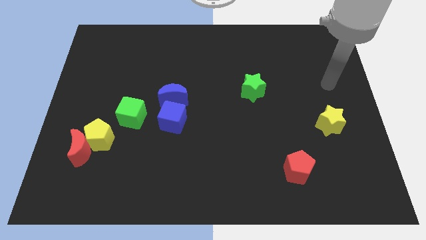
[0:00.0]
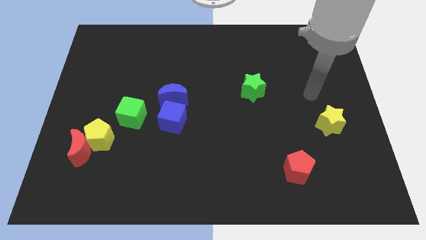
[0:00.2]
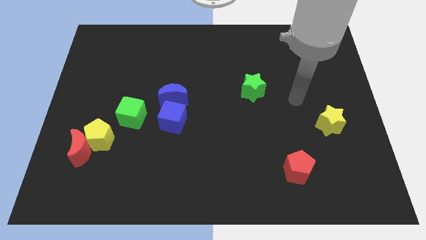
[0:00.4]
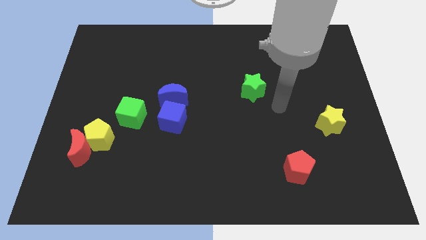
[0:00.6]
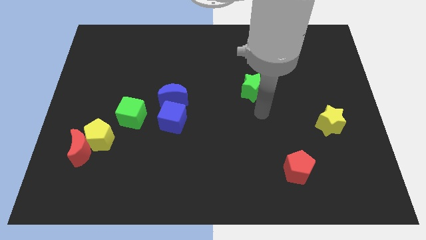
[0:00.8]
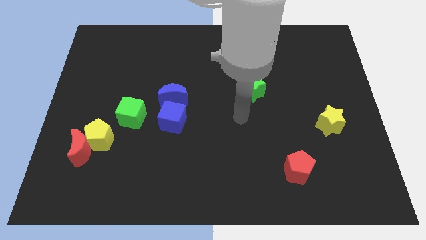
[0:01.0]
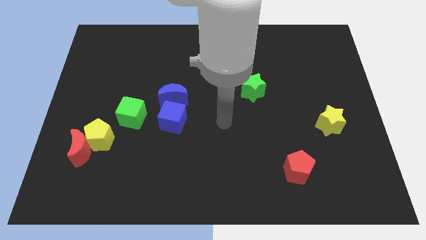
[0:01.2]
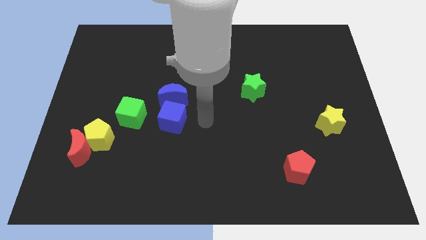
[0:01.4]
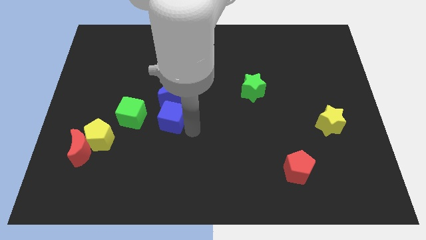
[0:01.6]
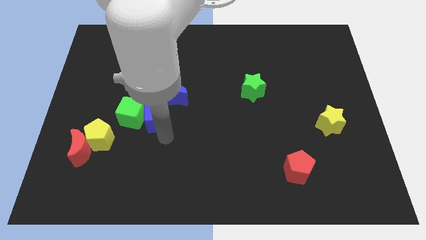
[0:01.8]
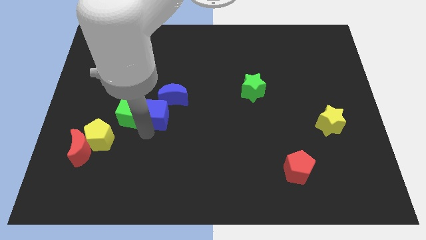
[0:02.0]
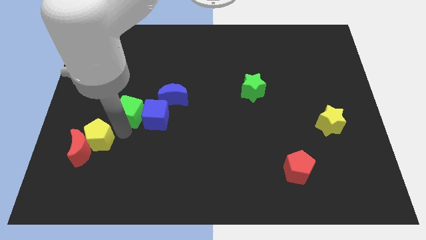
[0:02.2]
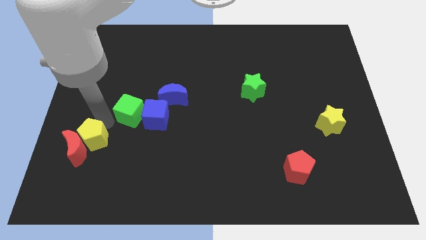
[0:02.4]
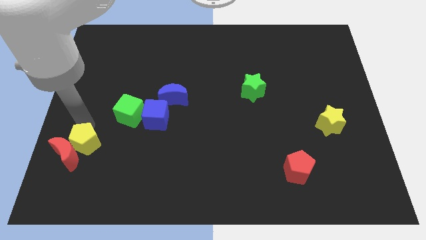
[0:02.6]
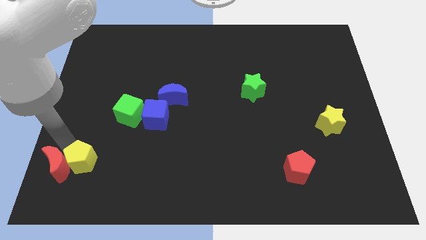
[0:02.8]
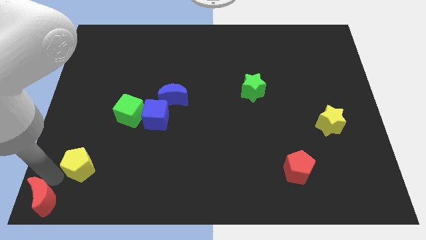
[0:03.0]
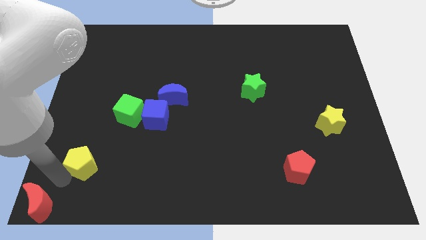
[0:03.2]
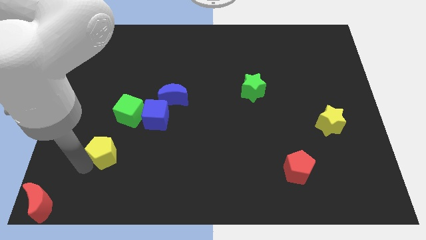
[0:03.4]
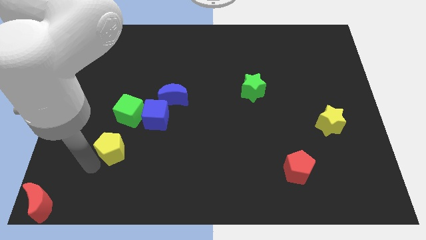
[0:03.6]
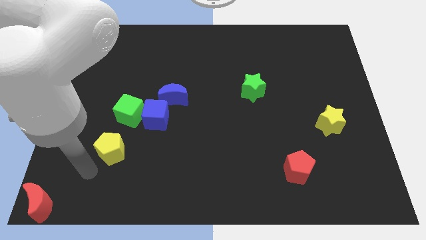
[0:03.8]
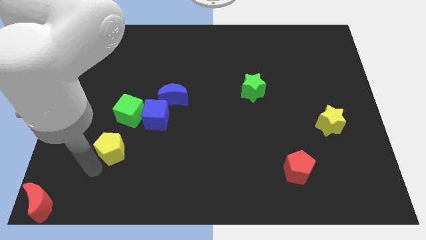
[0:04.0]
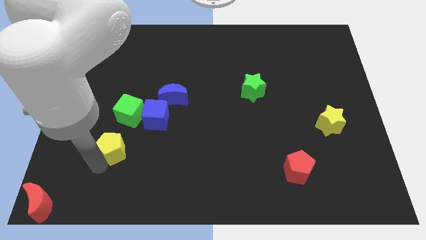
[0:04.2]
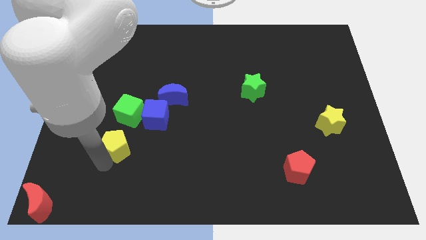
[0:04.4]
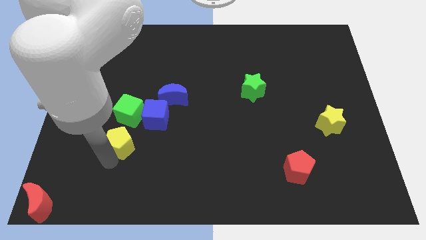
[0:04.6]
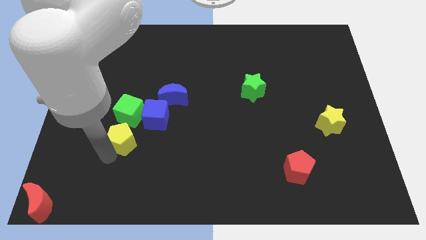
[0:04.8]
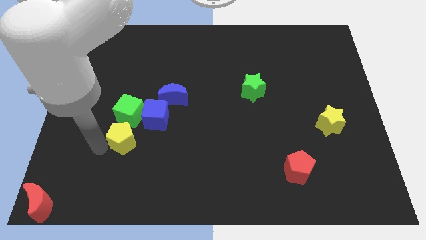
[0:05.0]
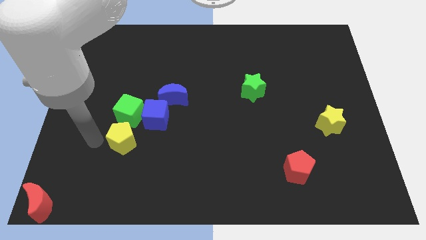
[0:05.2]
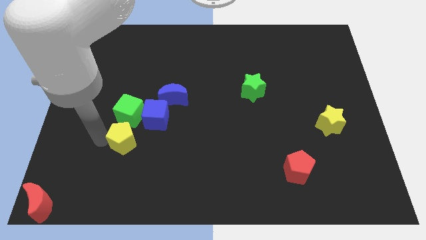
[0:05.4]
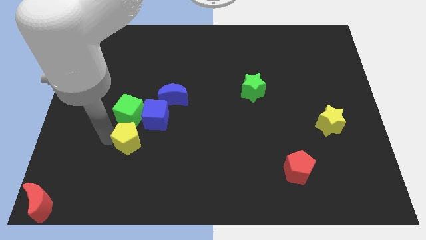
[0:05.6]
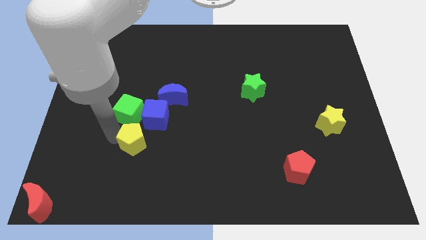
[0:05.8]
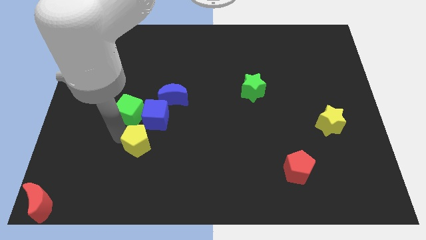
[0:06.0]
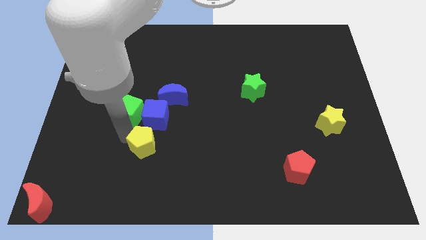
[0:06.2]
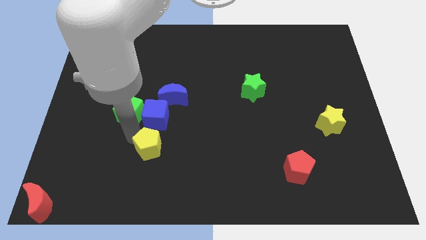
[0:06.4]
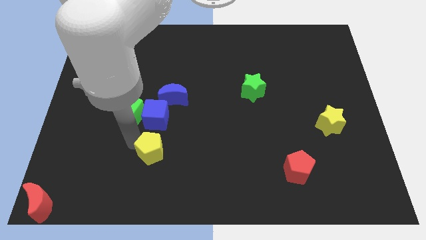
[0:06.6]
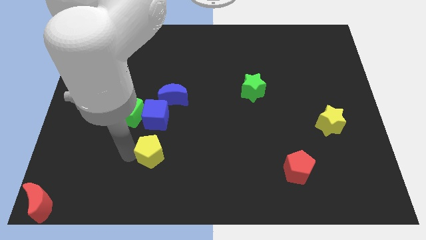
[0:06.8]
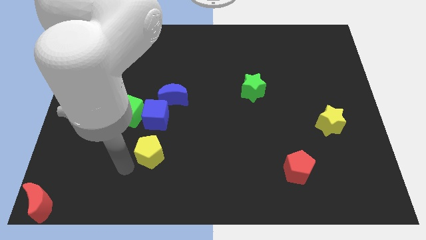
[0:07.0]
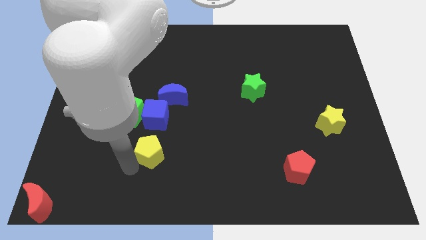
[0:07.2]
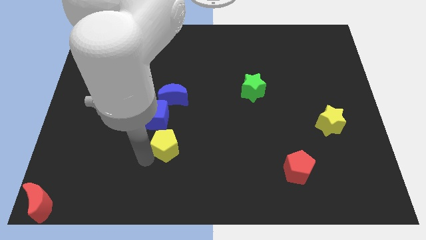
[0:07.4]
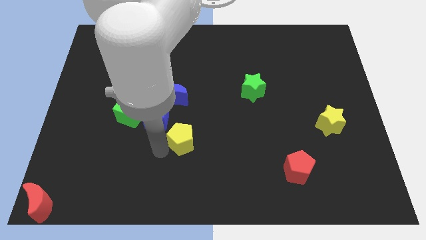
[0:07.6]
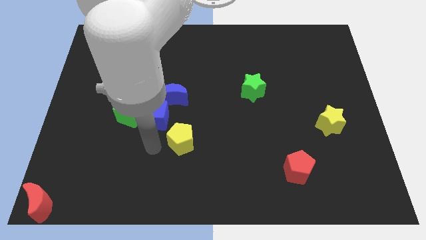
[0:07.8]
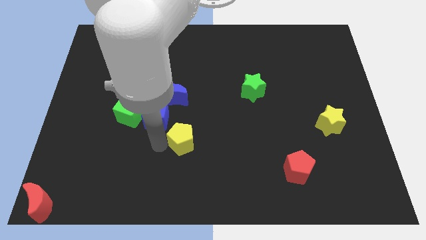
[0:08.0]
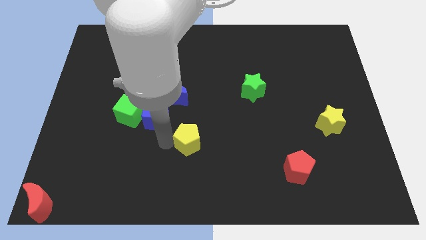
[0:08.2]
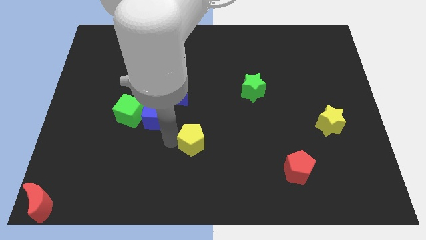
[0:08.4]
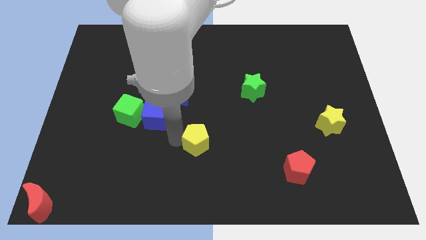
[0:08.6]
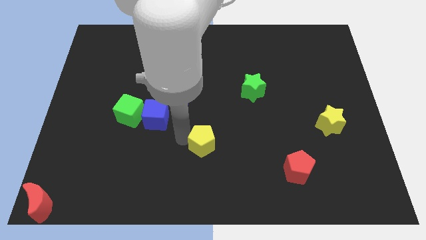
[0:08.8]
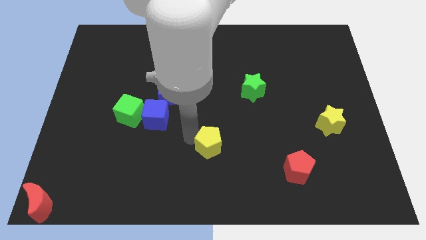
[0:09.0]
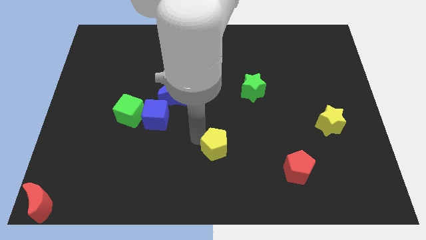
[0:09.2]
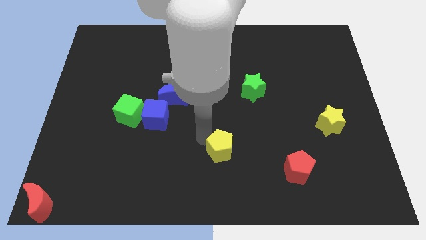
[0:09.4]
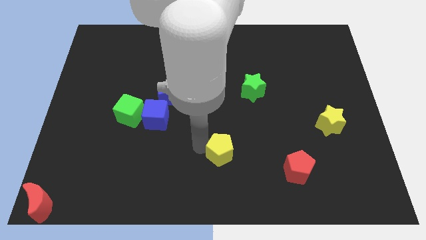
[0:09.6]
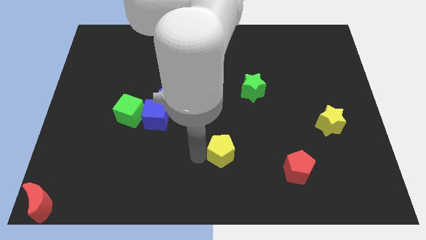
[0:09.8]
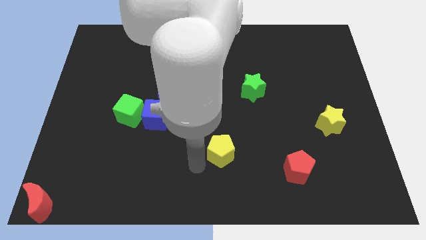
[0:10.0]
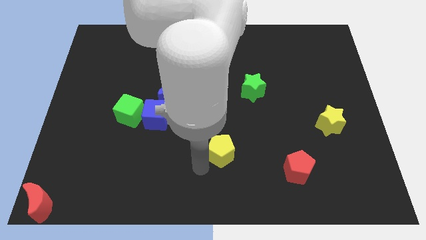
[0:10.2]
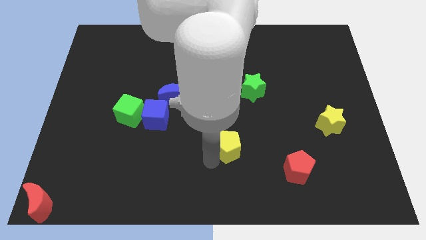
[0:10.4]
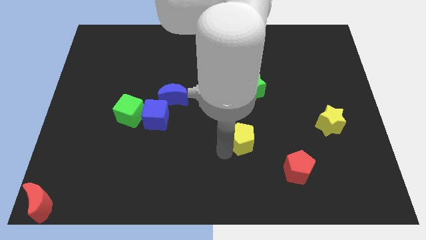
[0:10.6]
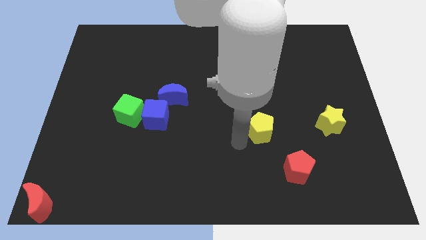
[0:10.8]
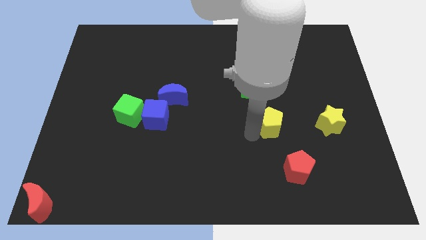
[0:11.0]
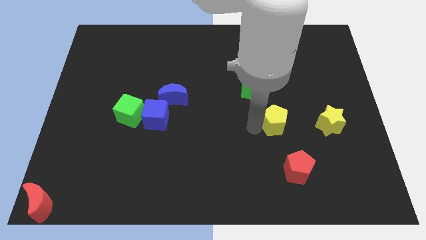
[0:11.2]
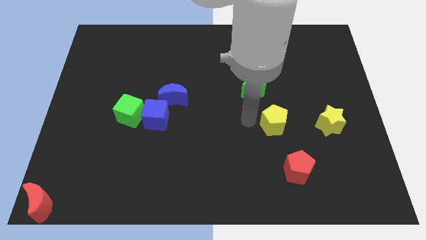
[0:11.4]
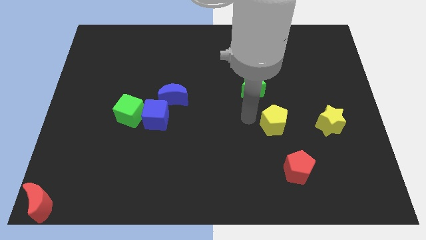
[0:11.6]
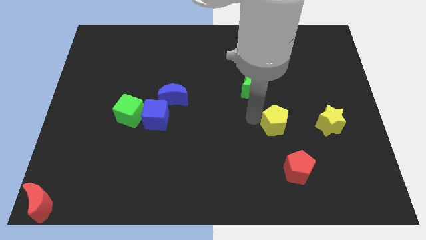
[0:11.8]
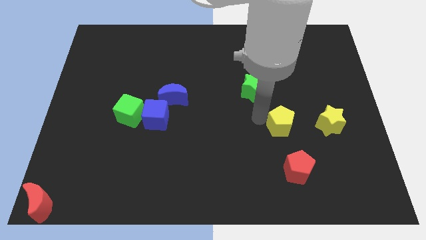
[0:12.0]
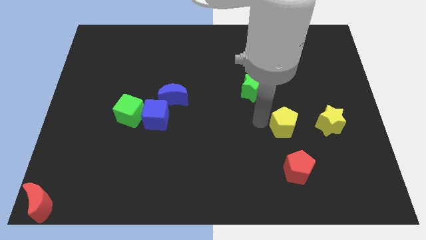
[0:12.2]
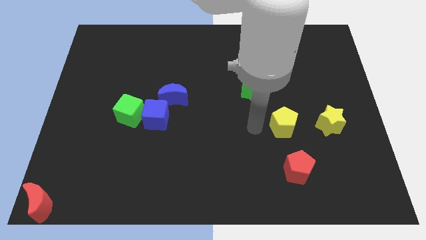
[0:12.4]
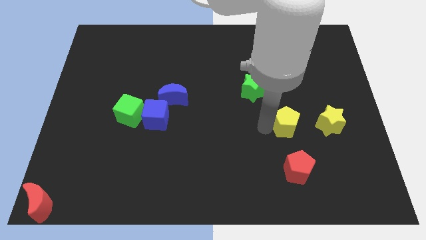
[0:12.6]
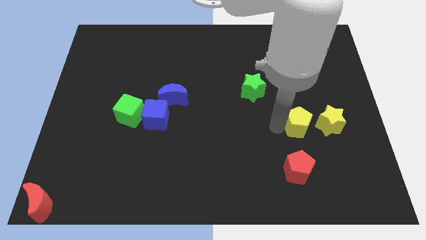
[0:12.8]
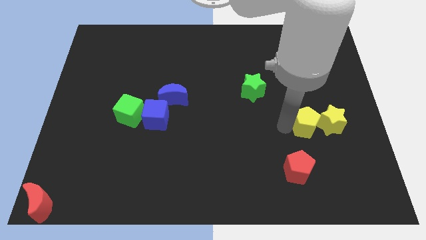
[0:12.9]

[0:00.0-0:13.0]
put the yellow pentagon close to the yellow star
